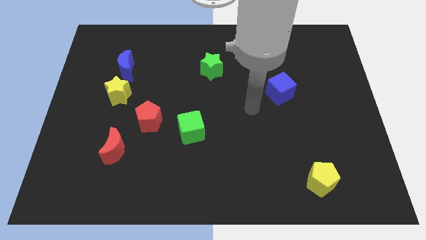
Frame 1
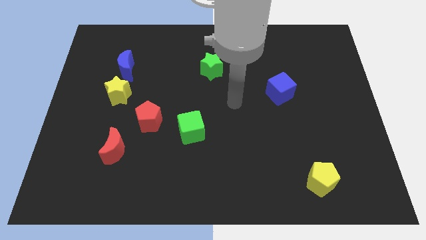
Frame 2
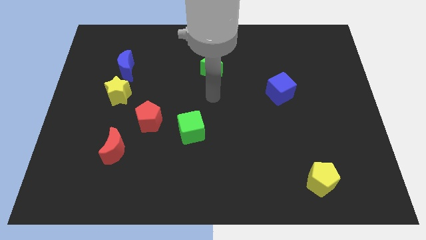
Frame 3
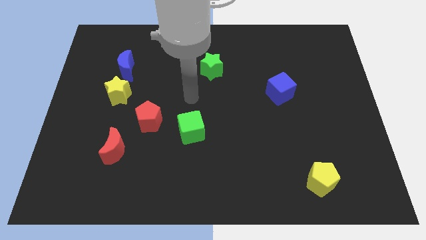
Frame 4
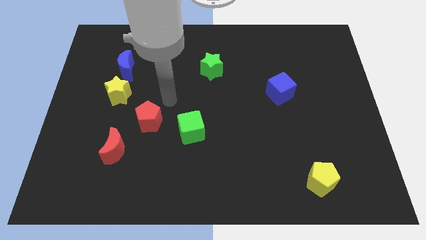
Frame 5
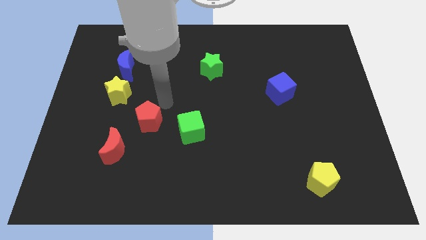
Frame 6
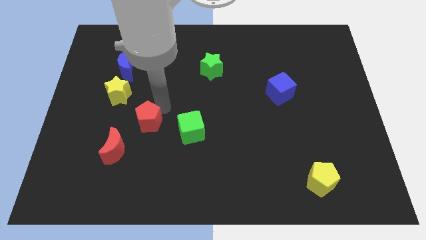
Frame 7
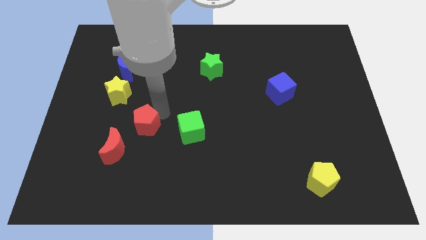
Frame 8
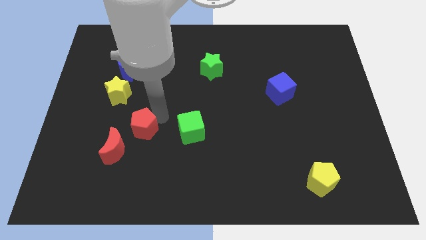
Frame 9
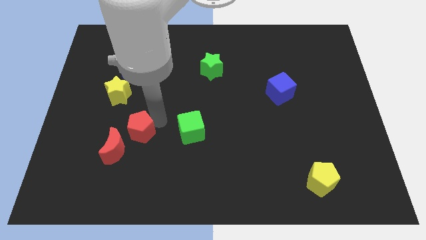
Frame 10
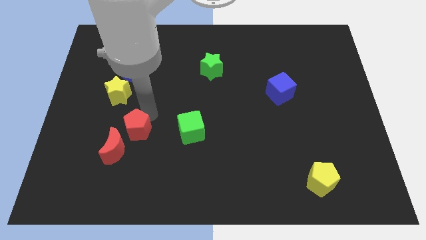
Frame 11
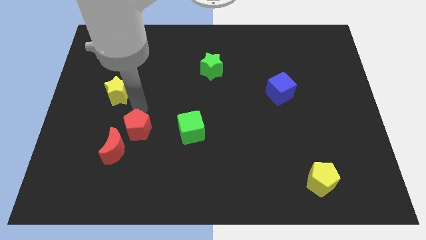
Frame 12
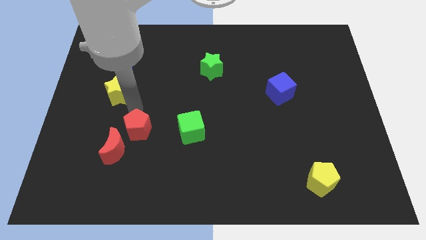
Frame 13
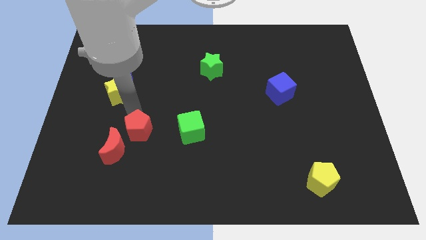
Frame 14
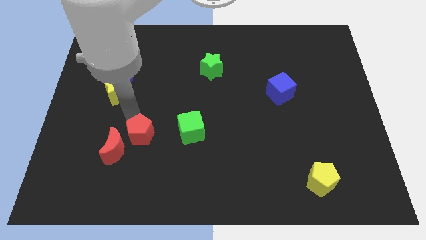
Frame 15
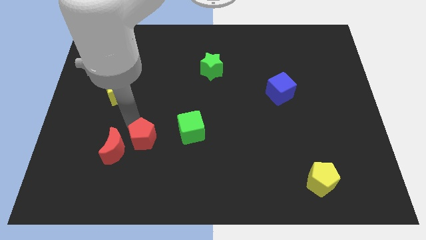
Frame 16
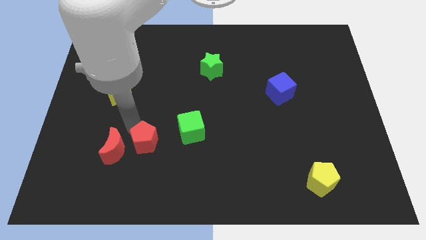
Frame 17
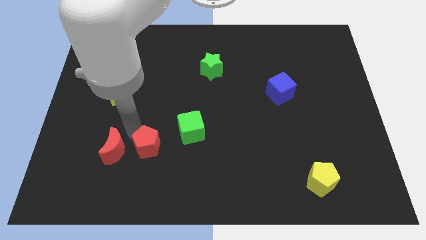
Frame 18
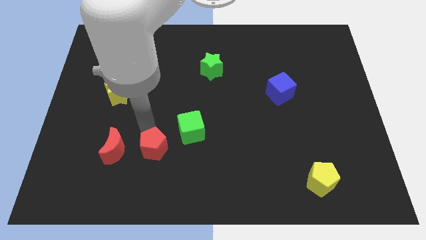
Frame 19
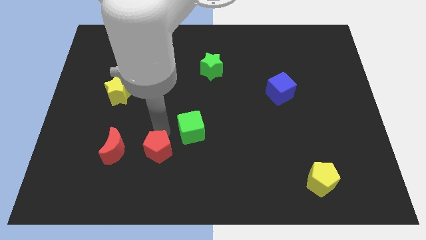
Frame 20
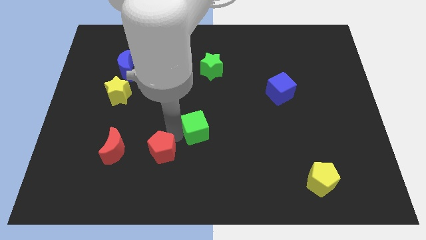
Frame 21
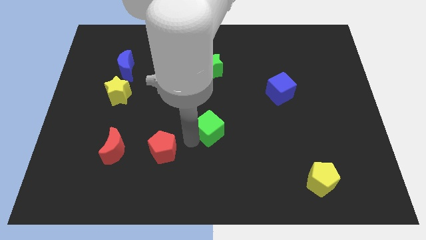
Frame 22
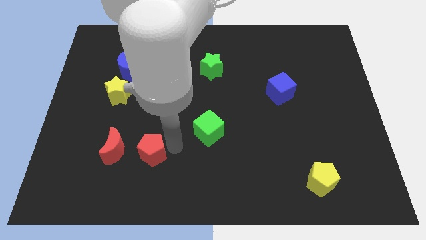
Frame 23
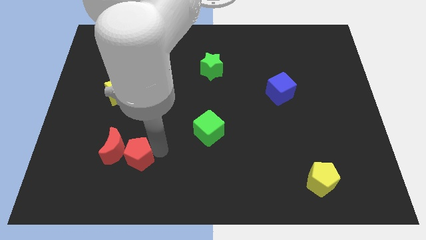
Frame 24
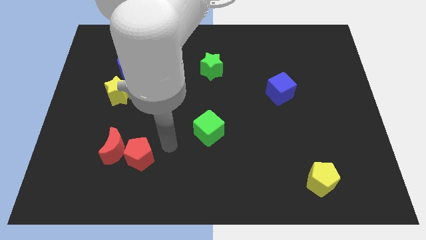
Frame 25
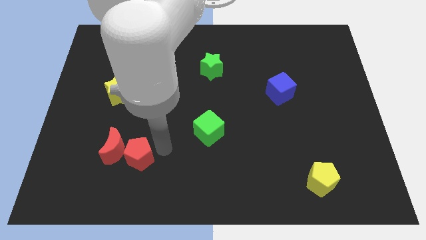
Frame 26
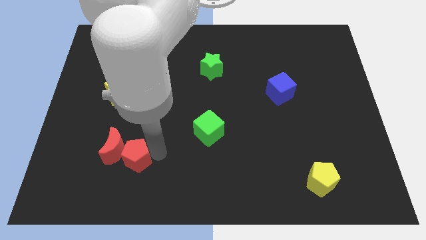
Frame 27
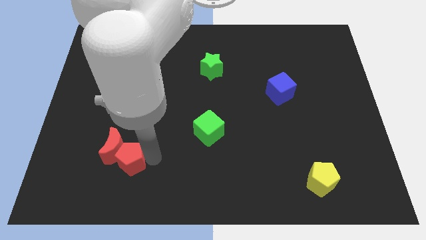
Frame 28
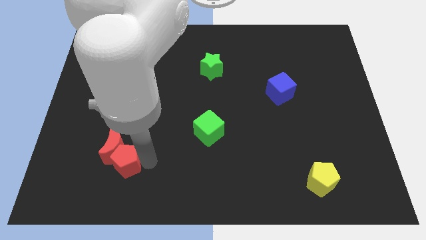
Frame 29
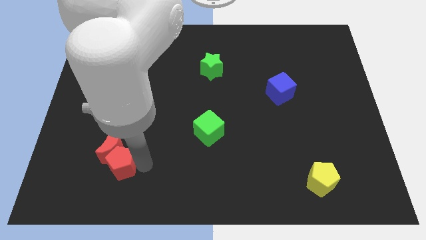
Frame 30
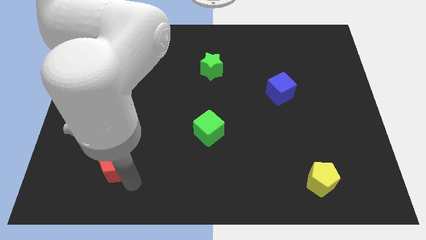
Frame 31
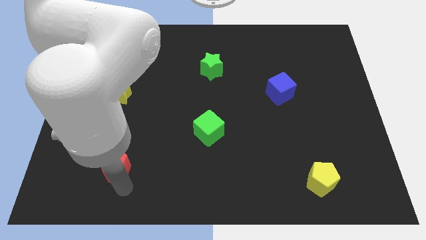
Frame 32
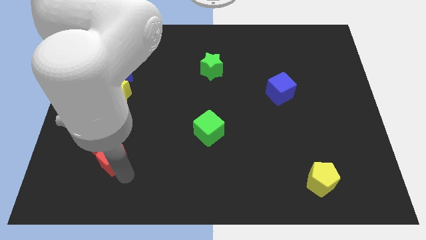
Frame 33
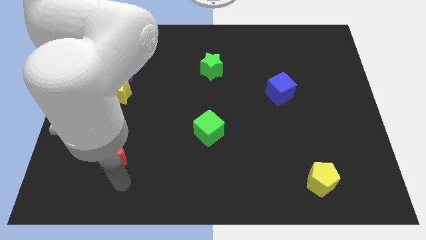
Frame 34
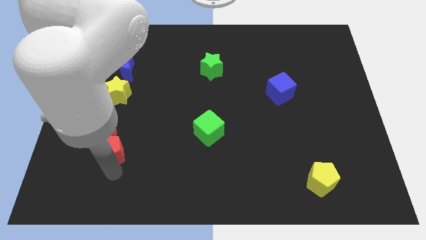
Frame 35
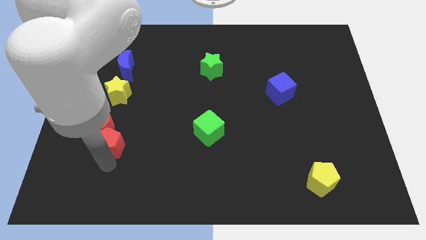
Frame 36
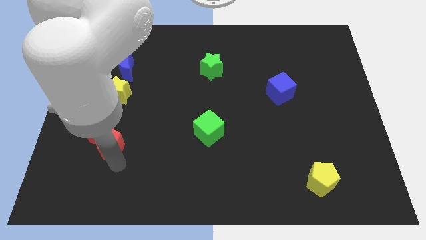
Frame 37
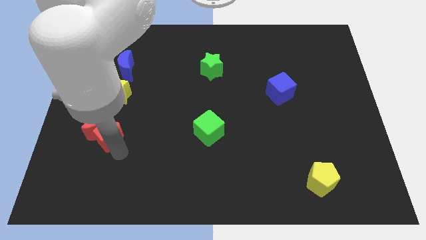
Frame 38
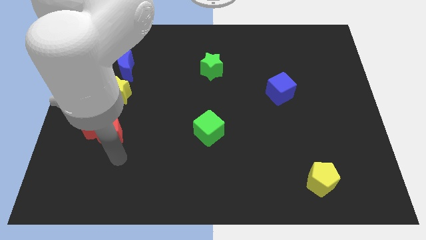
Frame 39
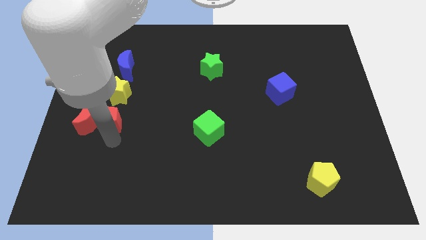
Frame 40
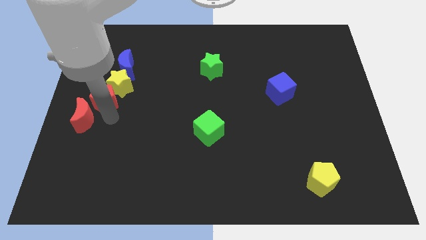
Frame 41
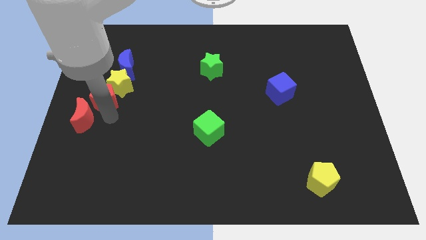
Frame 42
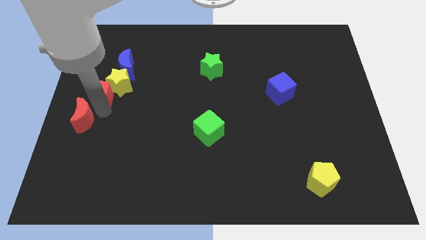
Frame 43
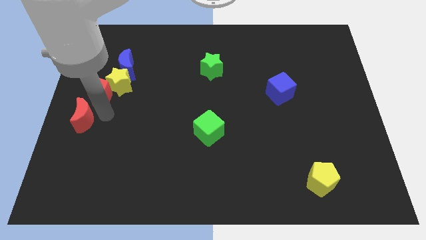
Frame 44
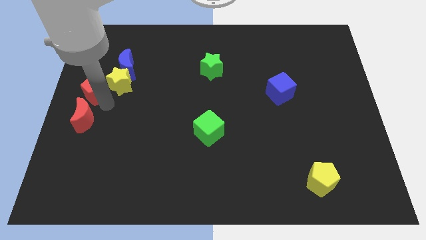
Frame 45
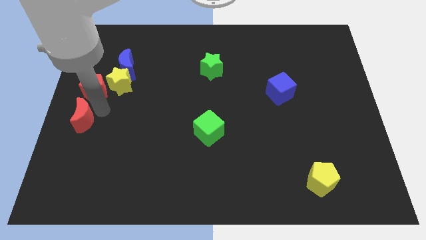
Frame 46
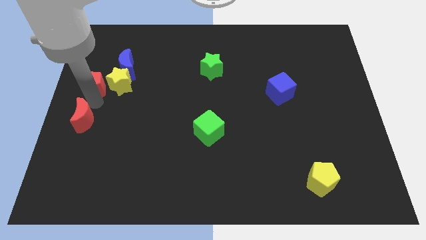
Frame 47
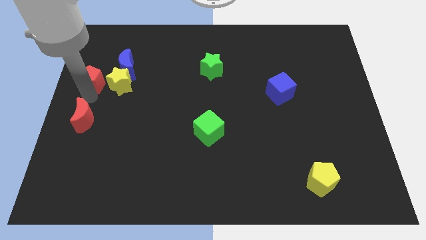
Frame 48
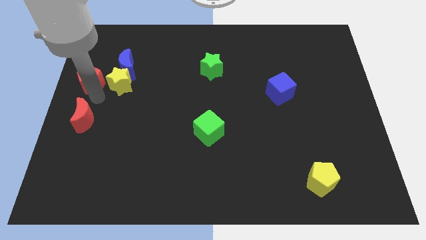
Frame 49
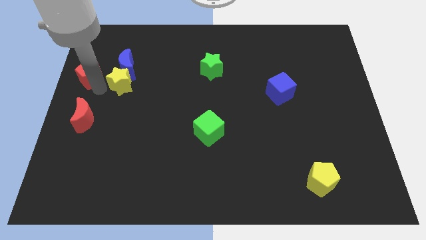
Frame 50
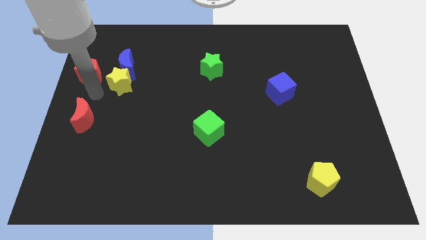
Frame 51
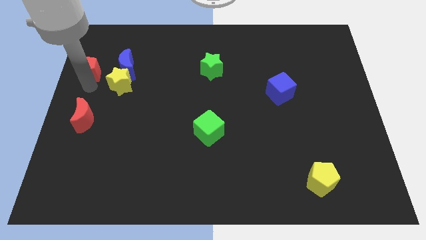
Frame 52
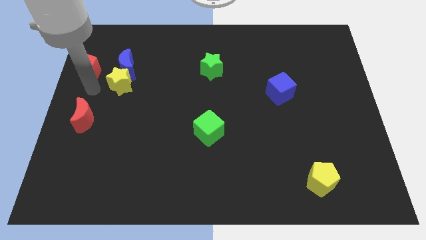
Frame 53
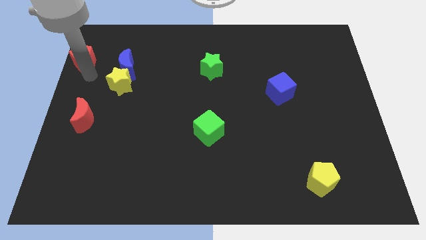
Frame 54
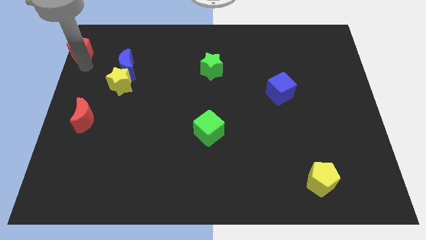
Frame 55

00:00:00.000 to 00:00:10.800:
move the red pentagon to the top left of the board
